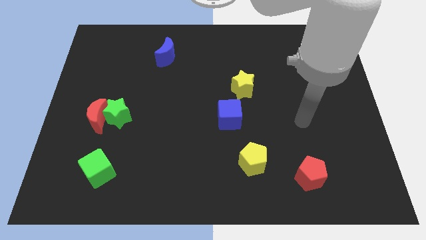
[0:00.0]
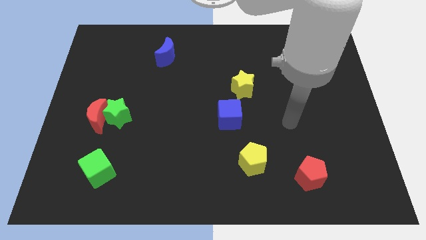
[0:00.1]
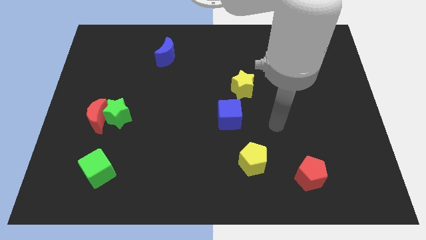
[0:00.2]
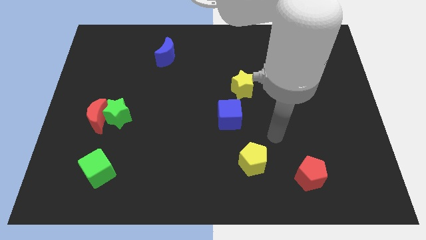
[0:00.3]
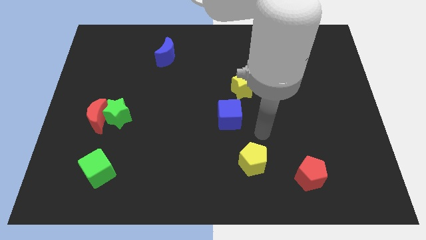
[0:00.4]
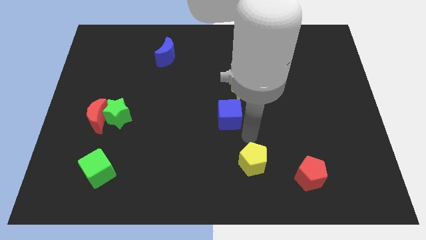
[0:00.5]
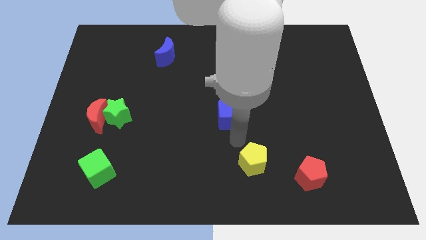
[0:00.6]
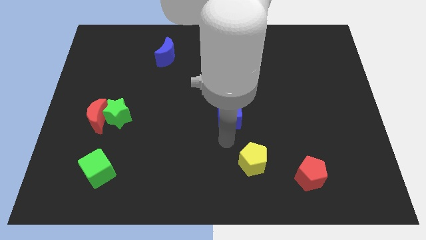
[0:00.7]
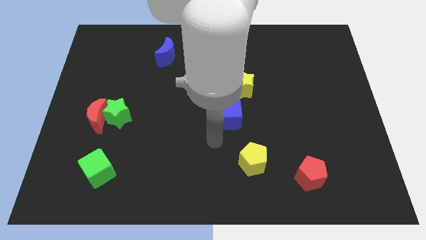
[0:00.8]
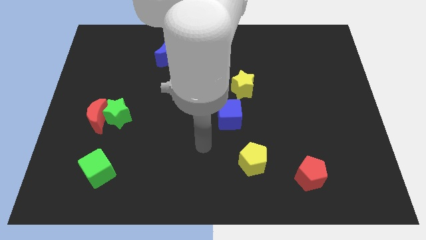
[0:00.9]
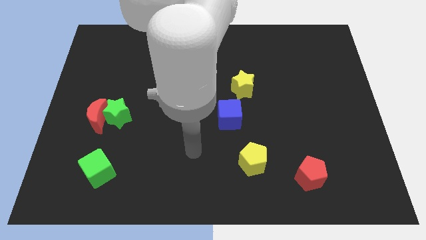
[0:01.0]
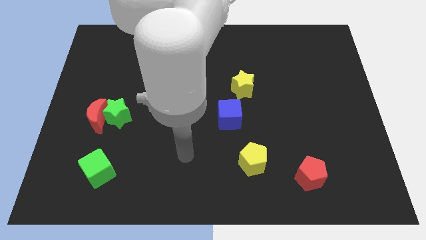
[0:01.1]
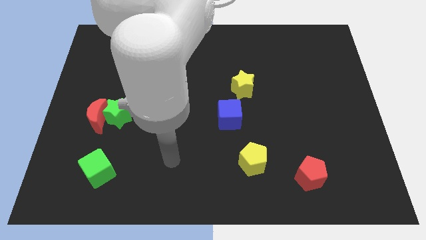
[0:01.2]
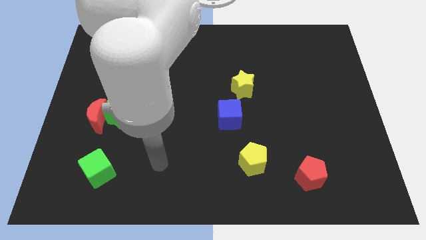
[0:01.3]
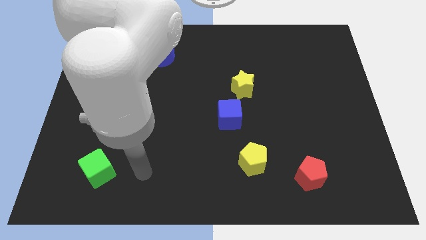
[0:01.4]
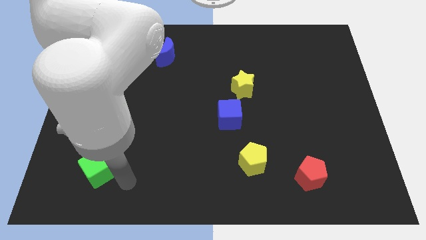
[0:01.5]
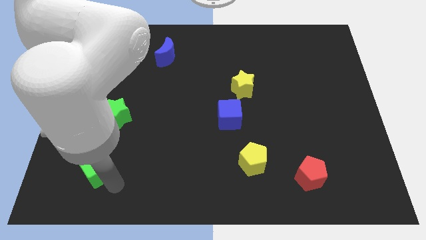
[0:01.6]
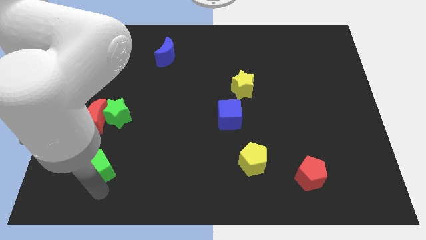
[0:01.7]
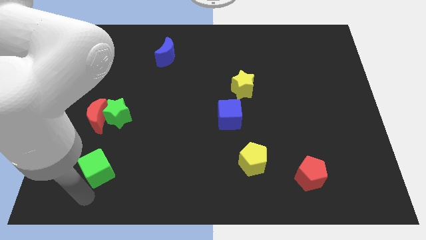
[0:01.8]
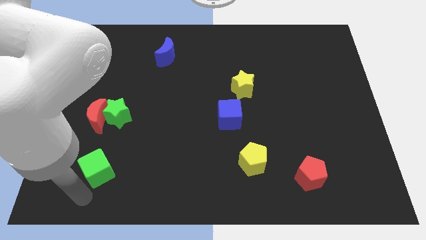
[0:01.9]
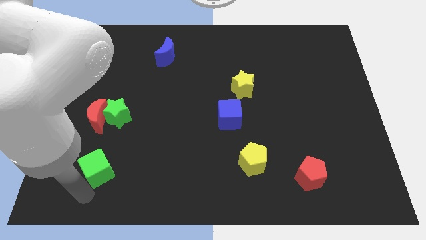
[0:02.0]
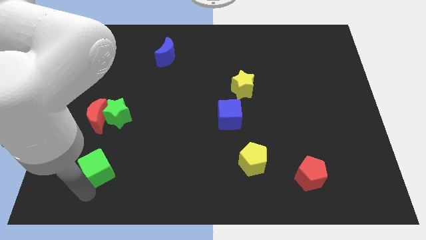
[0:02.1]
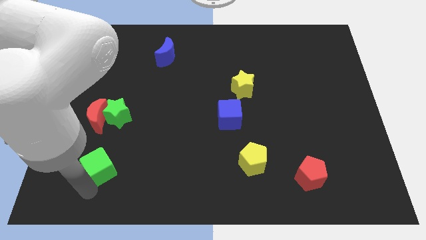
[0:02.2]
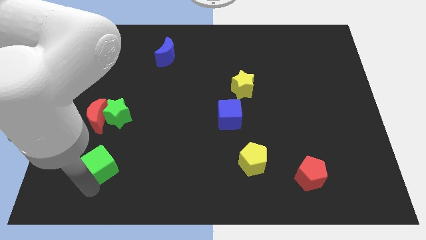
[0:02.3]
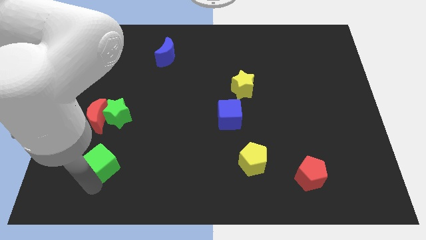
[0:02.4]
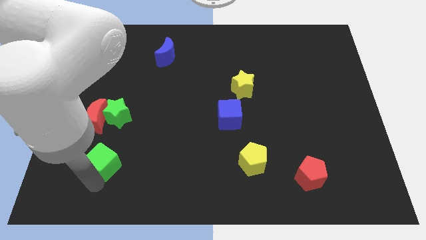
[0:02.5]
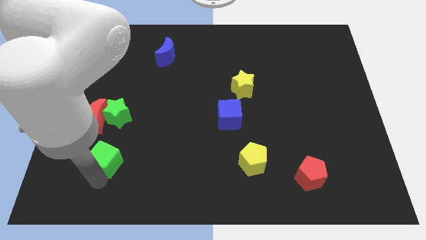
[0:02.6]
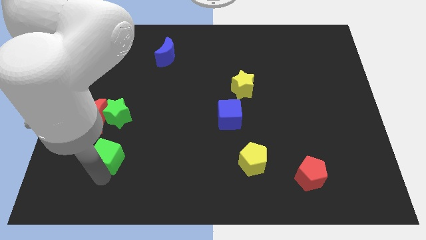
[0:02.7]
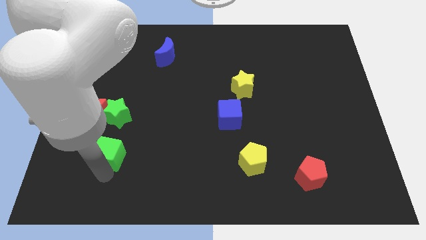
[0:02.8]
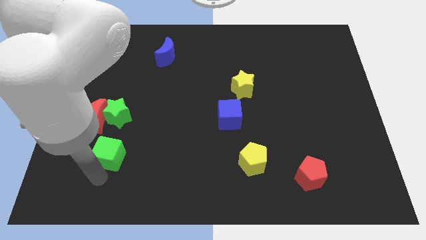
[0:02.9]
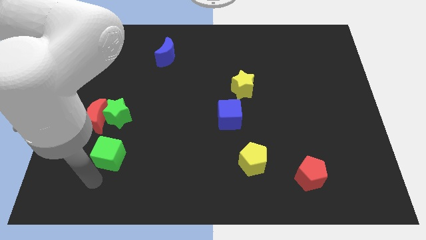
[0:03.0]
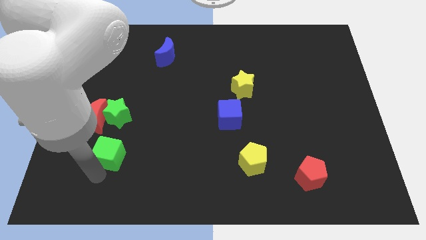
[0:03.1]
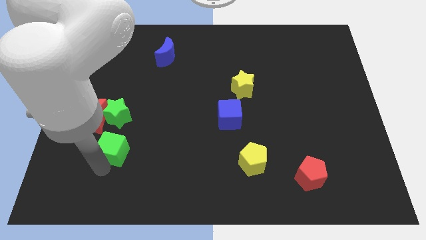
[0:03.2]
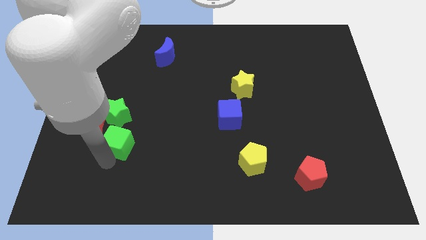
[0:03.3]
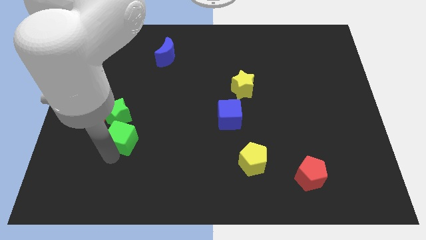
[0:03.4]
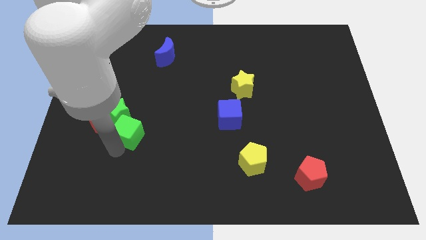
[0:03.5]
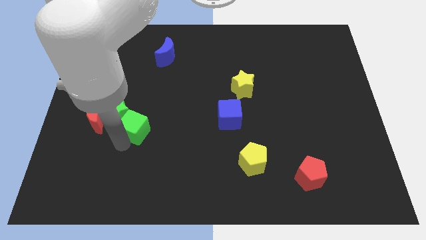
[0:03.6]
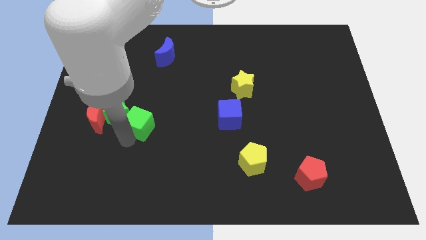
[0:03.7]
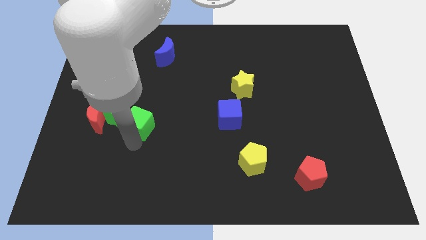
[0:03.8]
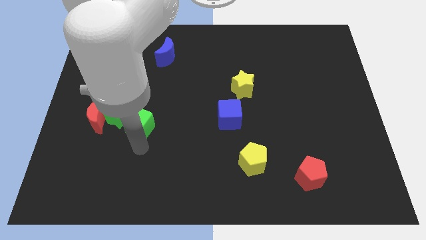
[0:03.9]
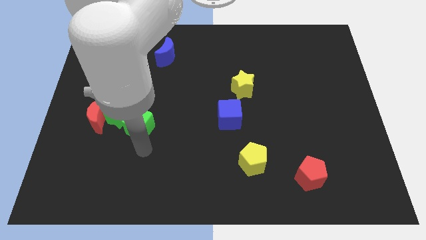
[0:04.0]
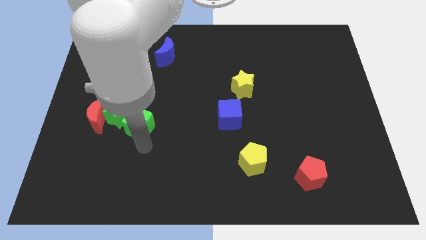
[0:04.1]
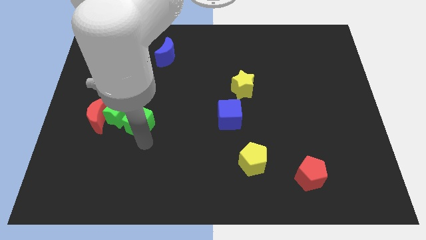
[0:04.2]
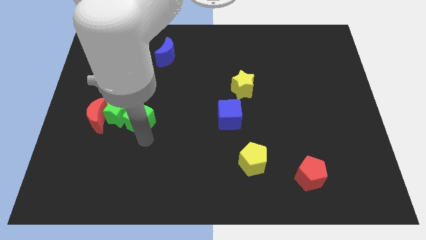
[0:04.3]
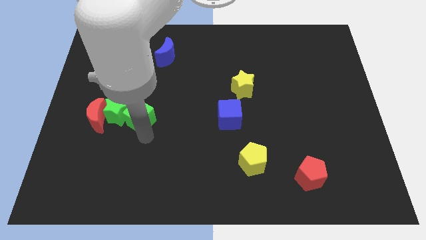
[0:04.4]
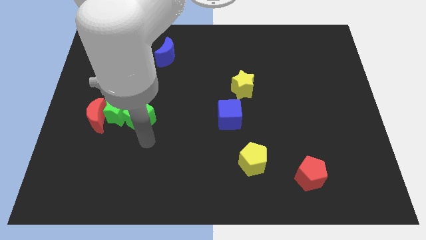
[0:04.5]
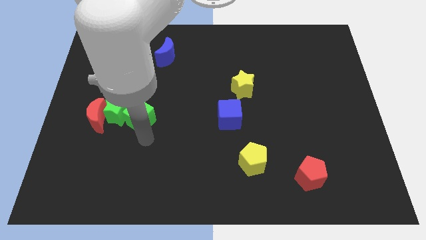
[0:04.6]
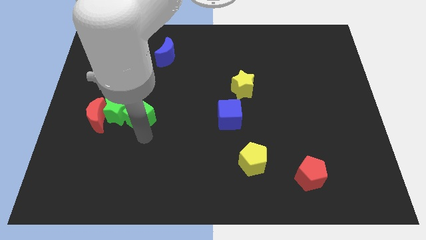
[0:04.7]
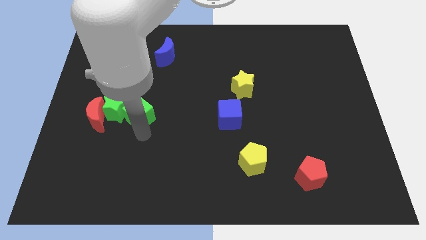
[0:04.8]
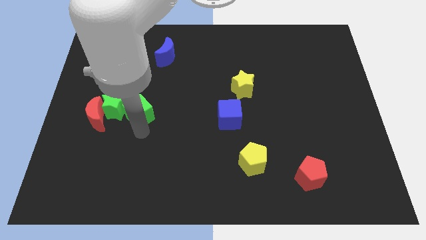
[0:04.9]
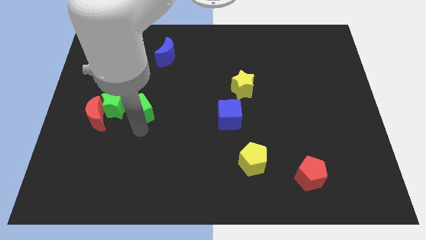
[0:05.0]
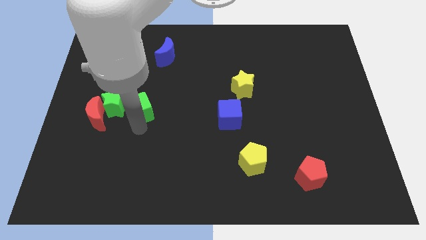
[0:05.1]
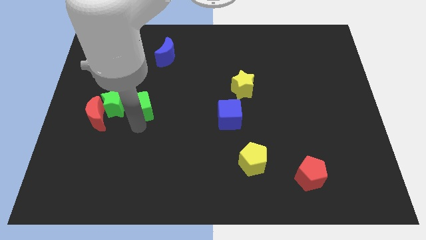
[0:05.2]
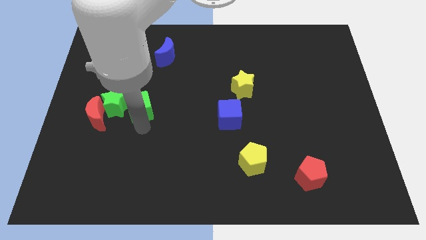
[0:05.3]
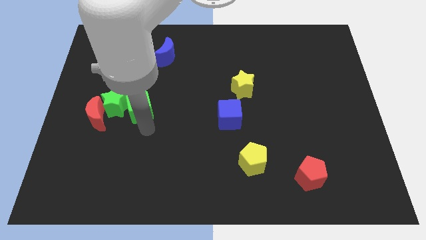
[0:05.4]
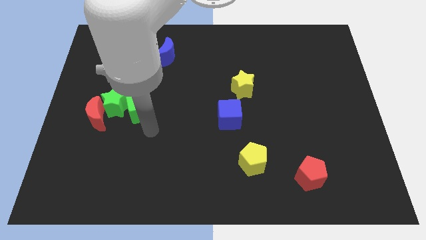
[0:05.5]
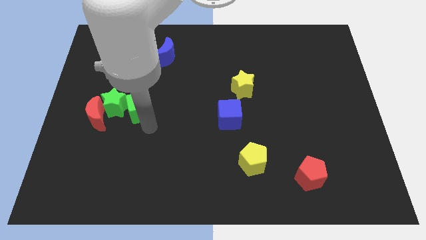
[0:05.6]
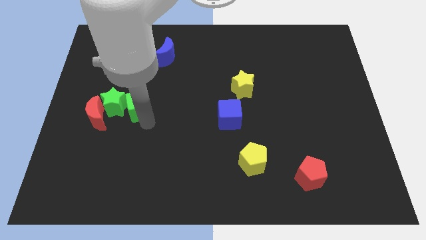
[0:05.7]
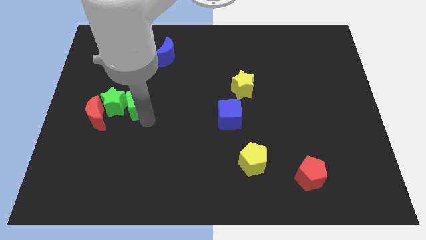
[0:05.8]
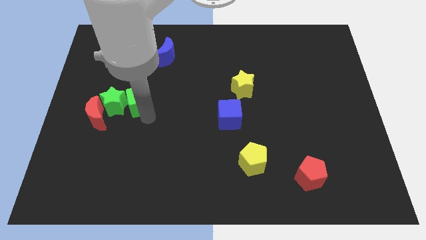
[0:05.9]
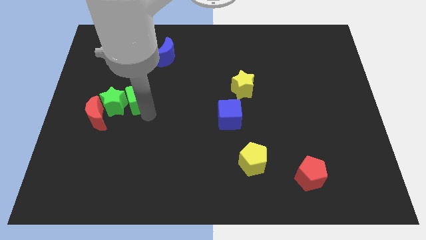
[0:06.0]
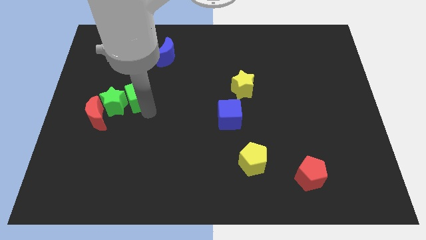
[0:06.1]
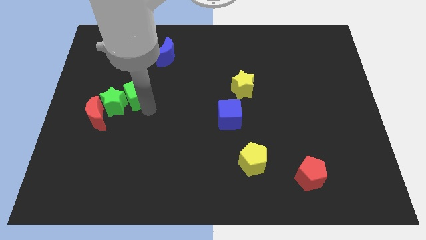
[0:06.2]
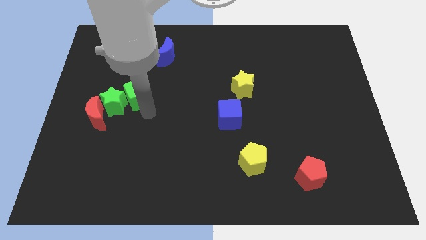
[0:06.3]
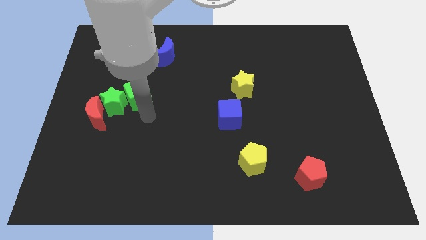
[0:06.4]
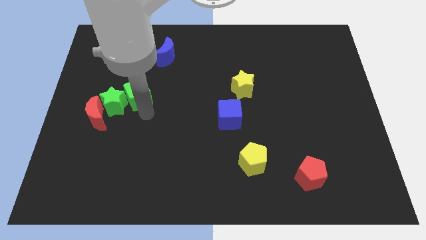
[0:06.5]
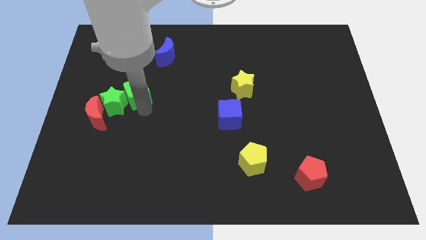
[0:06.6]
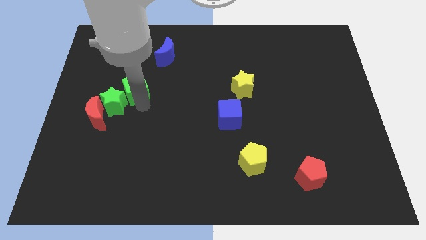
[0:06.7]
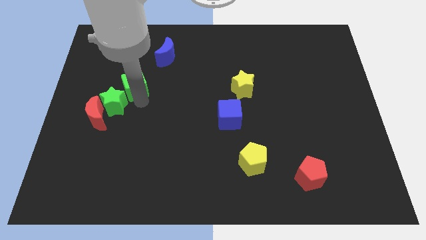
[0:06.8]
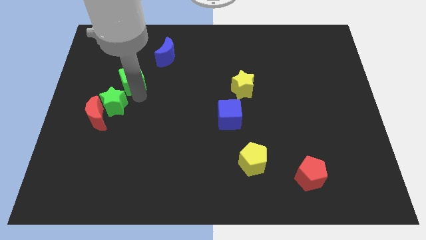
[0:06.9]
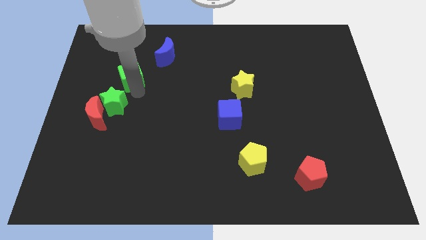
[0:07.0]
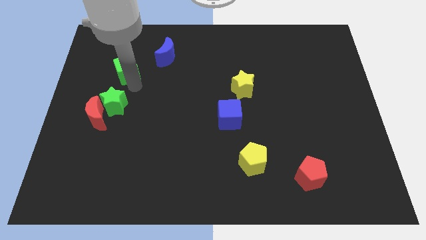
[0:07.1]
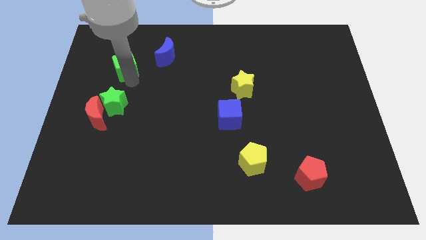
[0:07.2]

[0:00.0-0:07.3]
put the green cube just left of the blue moon
